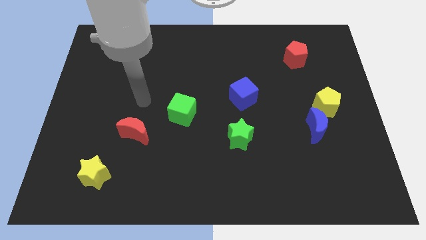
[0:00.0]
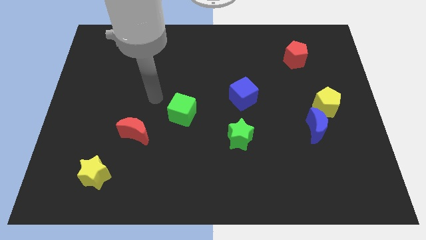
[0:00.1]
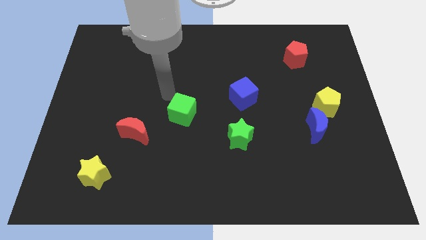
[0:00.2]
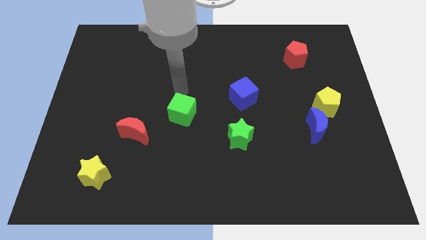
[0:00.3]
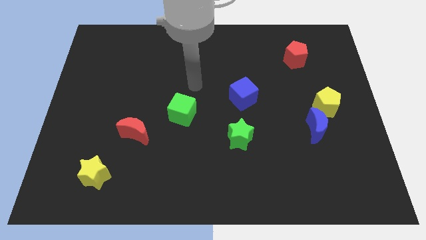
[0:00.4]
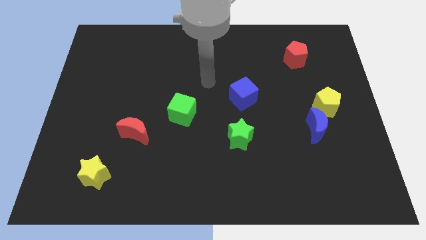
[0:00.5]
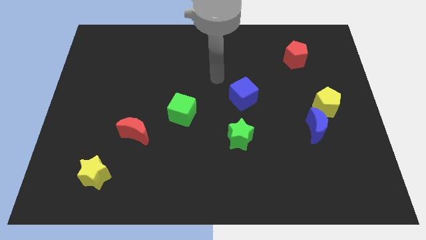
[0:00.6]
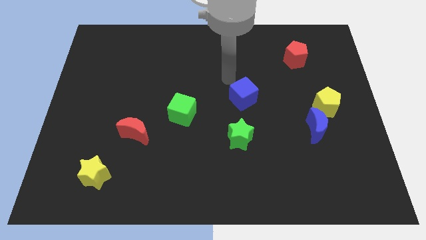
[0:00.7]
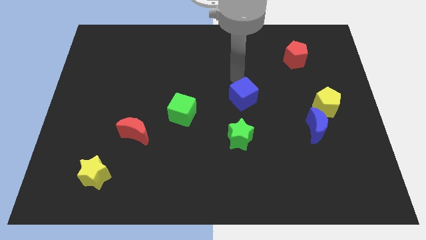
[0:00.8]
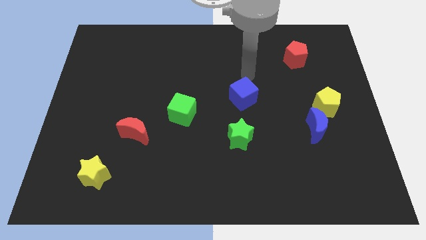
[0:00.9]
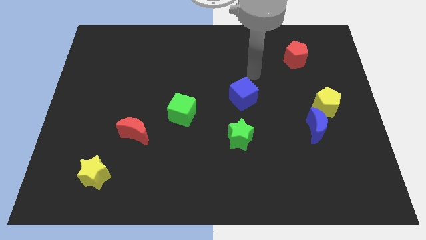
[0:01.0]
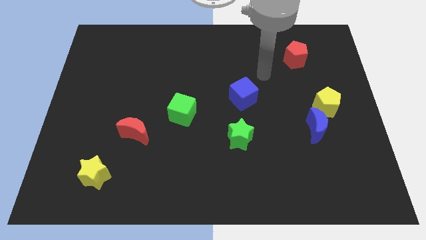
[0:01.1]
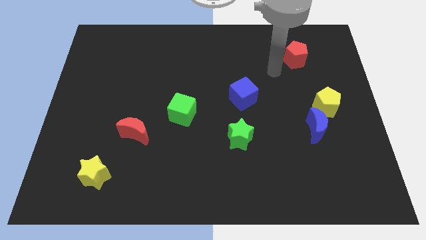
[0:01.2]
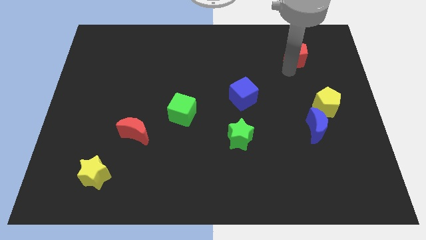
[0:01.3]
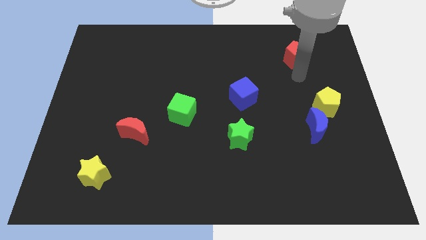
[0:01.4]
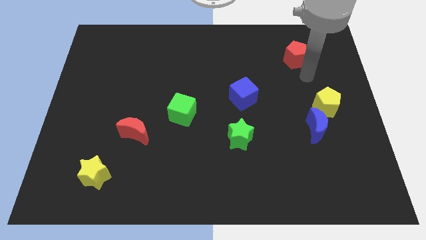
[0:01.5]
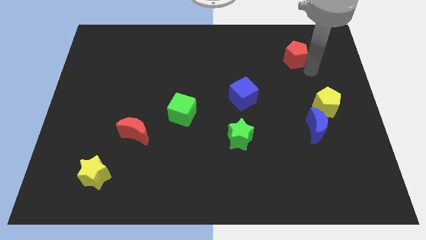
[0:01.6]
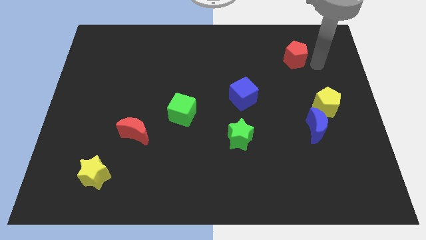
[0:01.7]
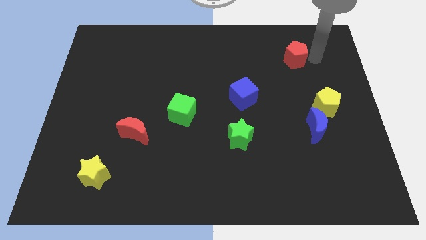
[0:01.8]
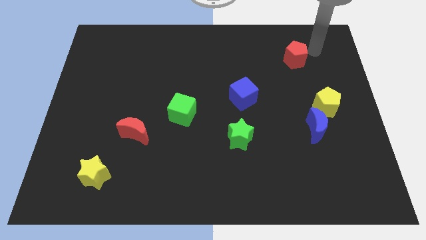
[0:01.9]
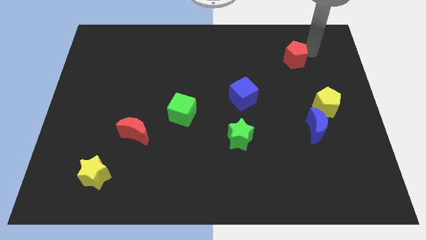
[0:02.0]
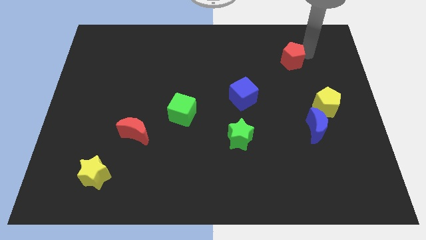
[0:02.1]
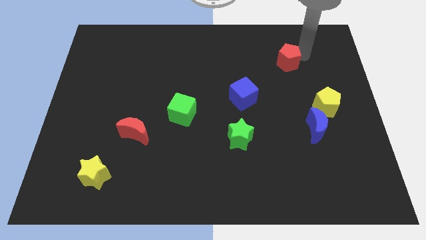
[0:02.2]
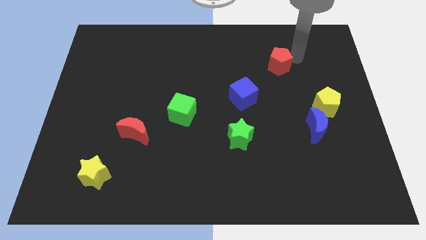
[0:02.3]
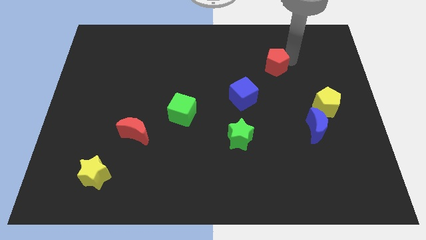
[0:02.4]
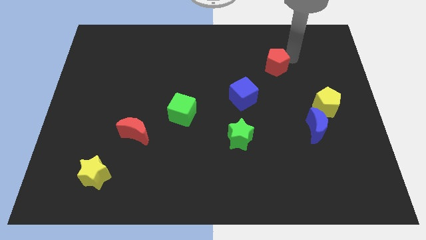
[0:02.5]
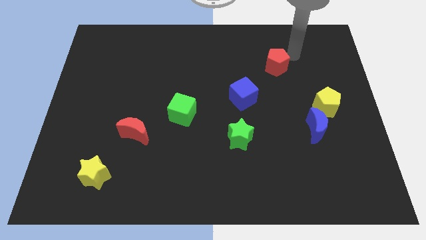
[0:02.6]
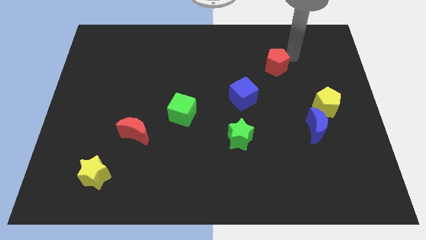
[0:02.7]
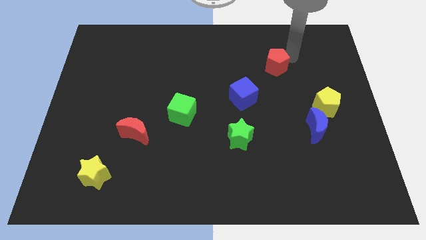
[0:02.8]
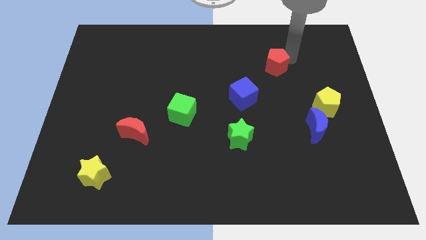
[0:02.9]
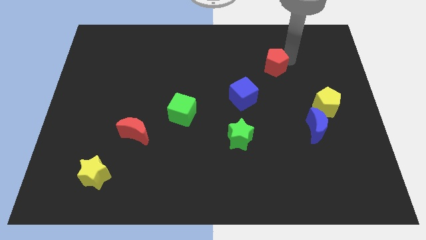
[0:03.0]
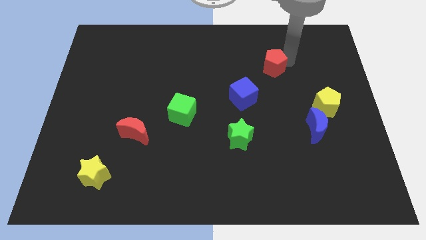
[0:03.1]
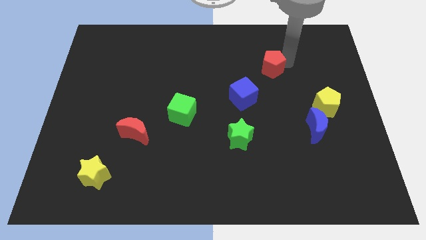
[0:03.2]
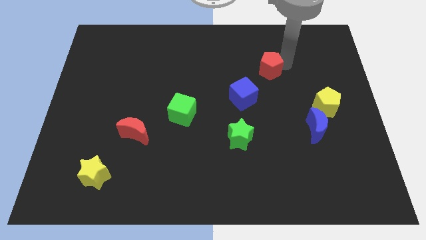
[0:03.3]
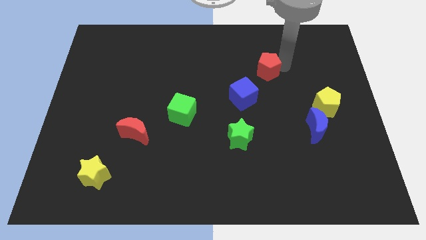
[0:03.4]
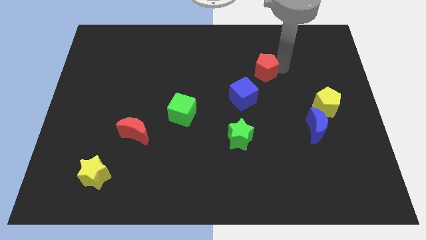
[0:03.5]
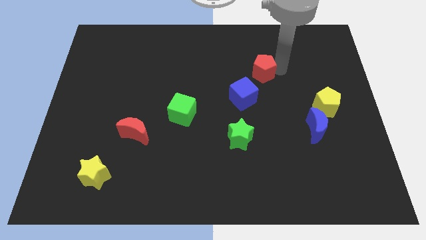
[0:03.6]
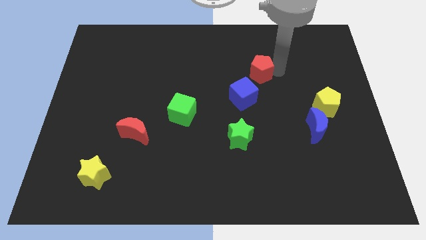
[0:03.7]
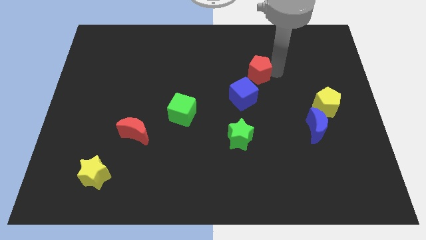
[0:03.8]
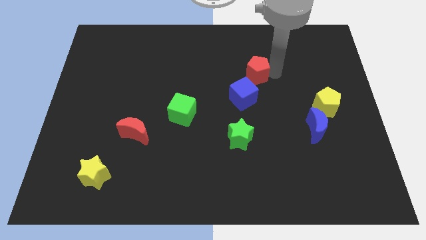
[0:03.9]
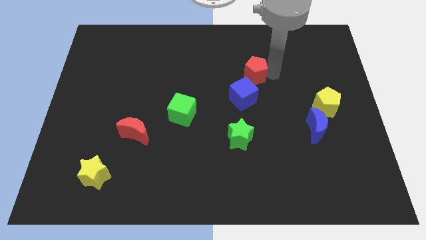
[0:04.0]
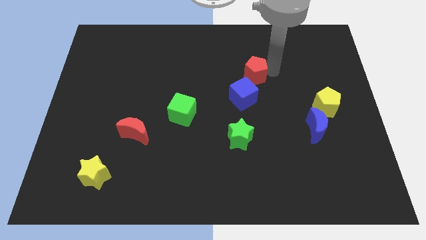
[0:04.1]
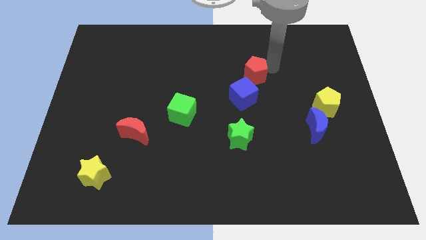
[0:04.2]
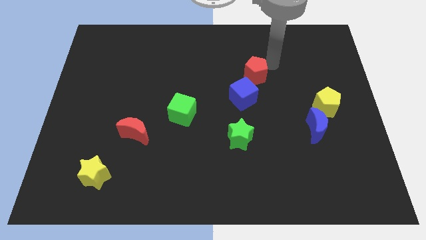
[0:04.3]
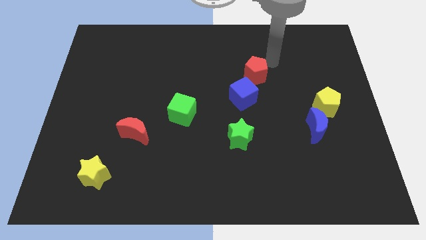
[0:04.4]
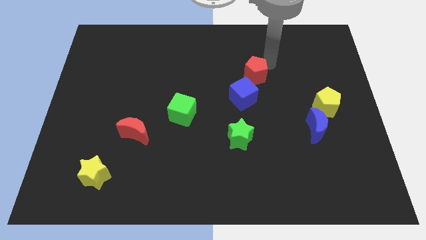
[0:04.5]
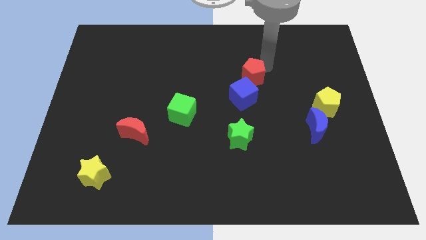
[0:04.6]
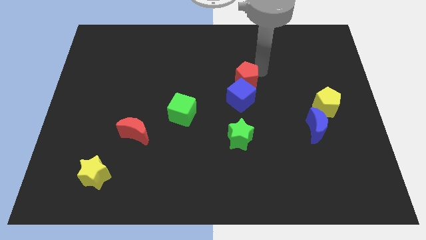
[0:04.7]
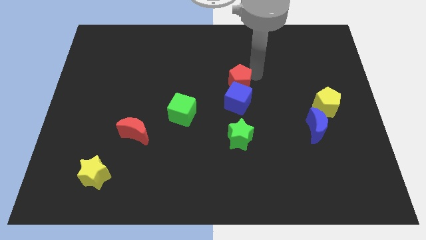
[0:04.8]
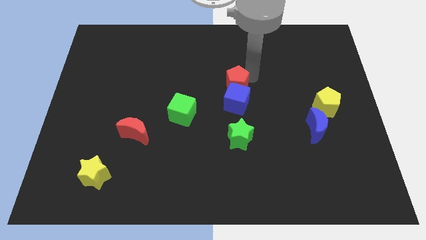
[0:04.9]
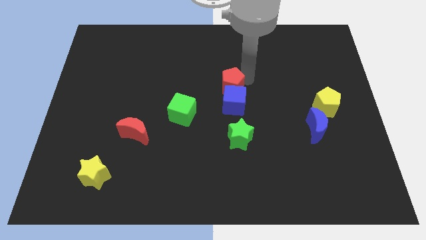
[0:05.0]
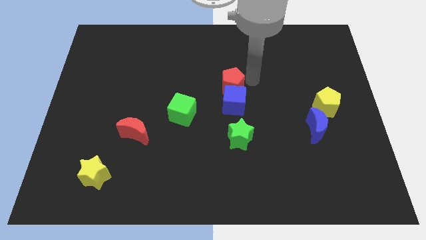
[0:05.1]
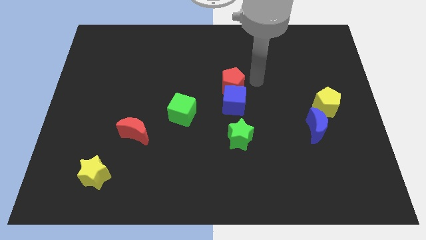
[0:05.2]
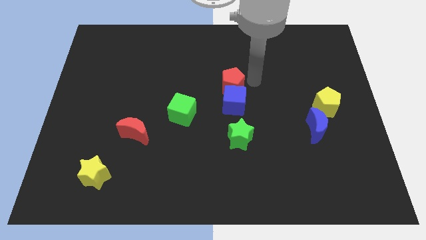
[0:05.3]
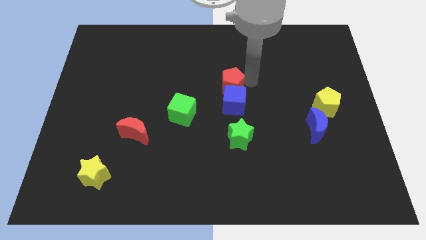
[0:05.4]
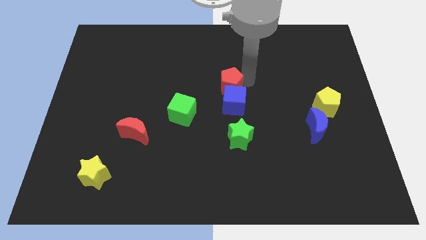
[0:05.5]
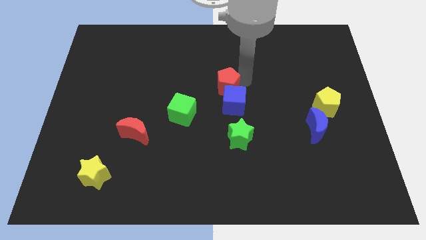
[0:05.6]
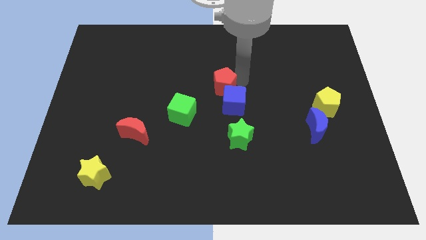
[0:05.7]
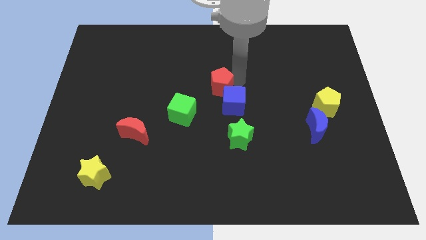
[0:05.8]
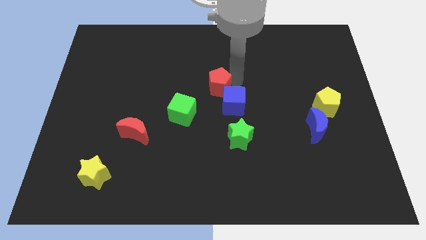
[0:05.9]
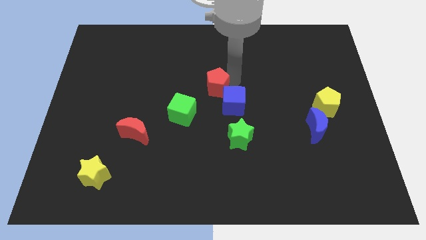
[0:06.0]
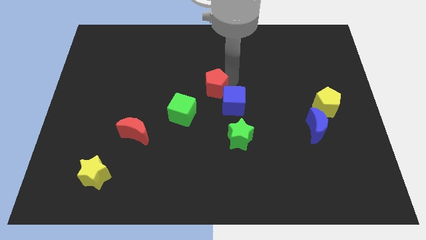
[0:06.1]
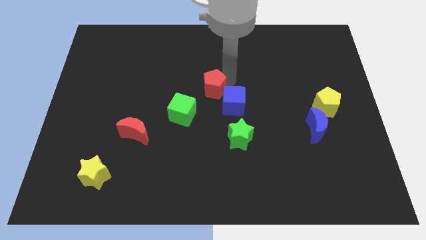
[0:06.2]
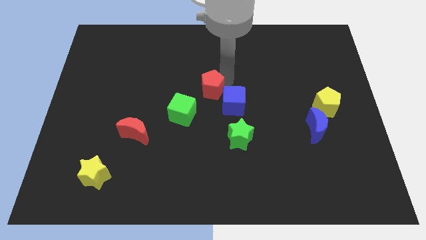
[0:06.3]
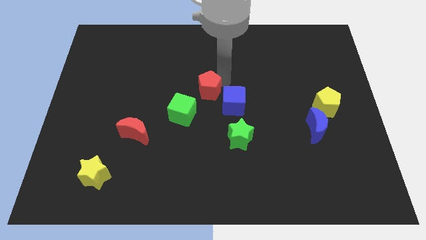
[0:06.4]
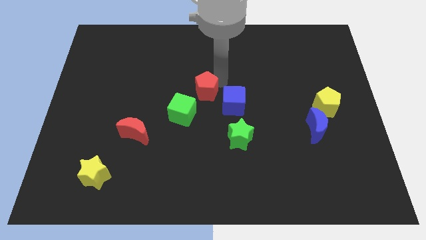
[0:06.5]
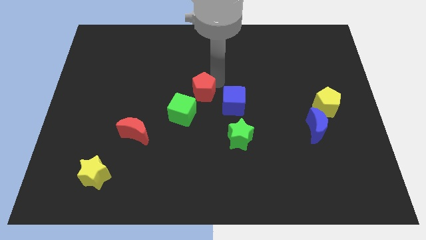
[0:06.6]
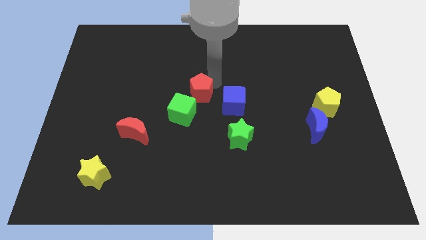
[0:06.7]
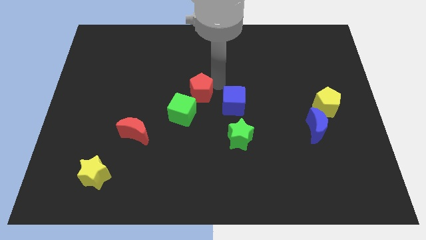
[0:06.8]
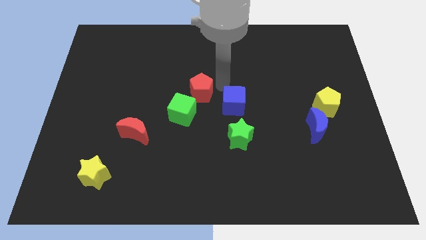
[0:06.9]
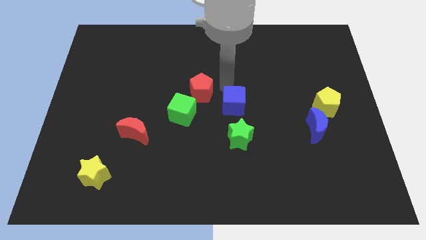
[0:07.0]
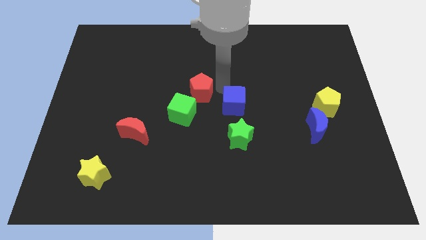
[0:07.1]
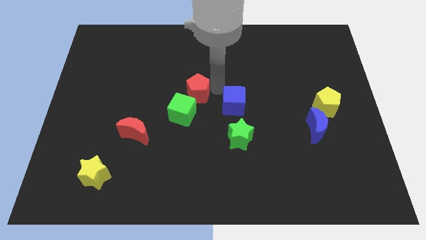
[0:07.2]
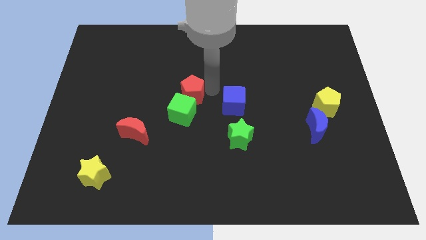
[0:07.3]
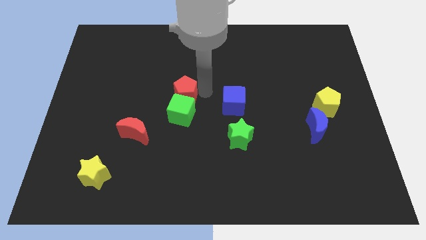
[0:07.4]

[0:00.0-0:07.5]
push the red pentagon diagonally up and to the left of the green cube

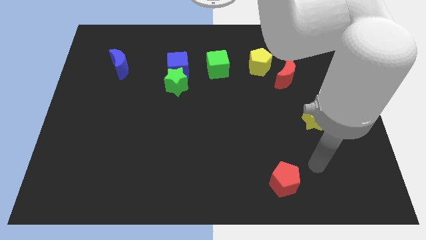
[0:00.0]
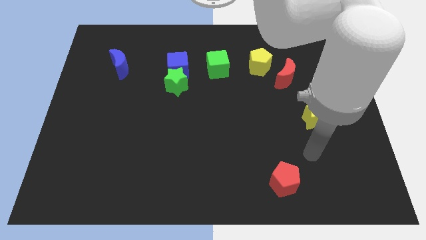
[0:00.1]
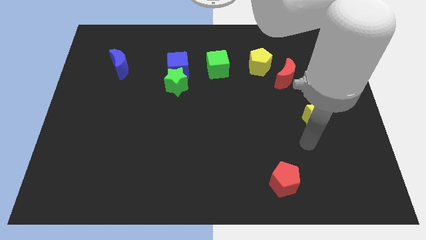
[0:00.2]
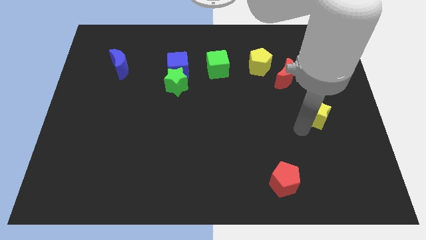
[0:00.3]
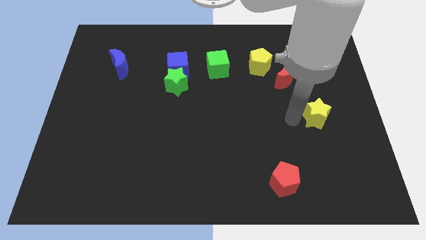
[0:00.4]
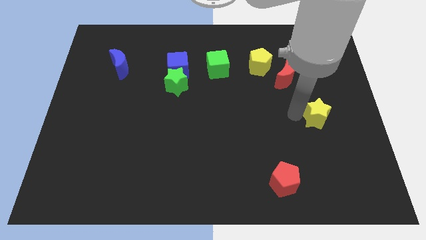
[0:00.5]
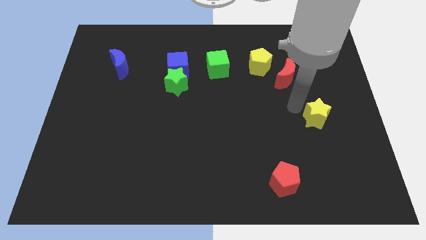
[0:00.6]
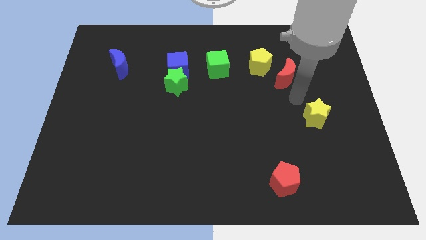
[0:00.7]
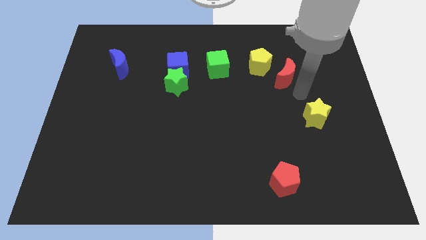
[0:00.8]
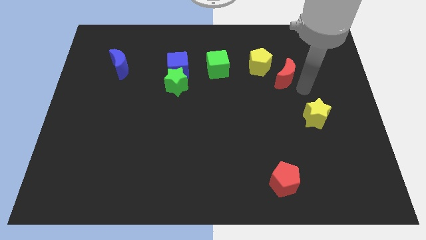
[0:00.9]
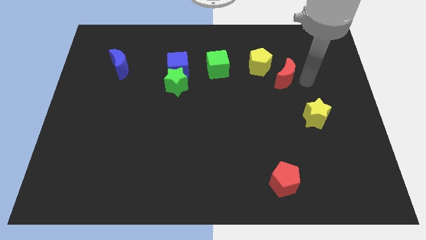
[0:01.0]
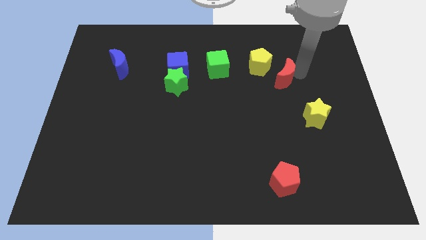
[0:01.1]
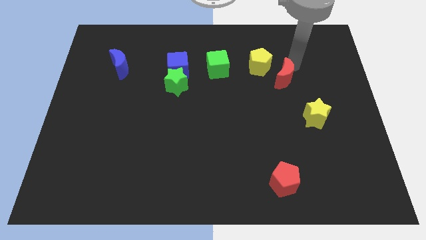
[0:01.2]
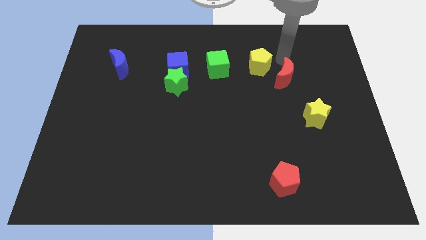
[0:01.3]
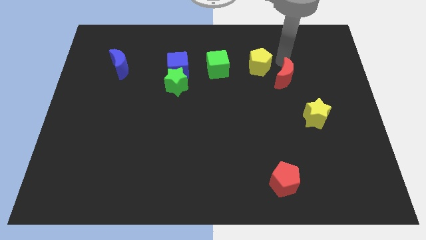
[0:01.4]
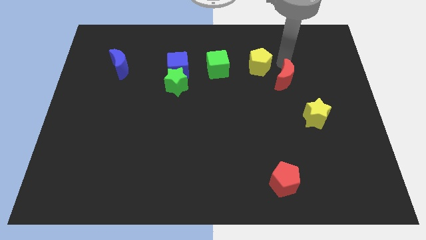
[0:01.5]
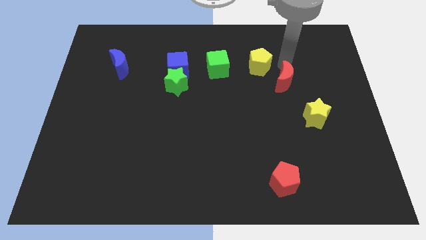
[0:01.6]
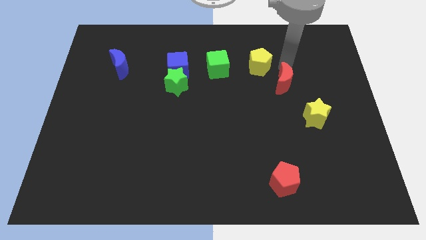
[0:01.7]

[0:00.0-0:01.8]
put the red moon to the top left side of the yellow star
